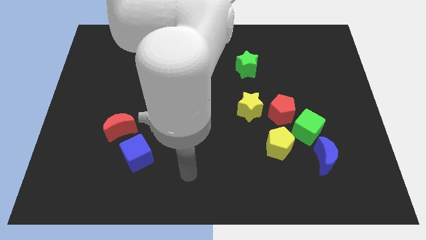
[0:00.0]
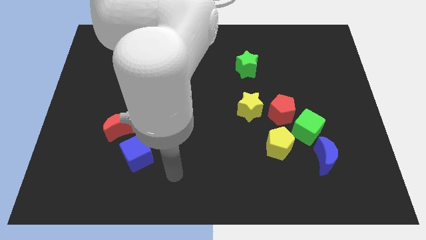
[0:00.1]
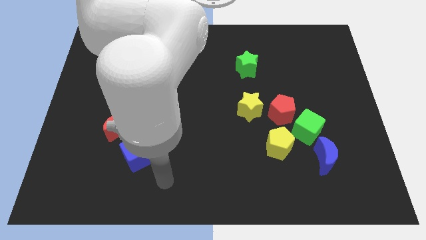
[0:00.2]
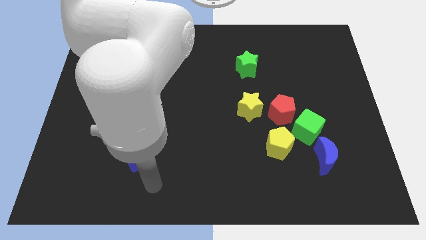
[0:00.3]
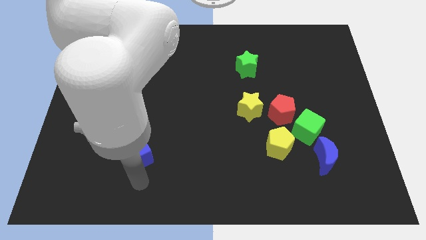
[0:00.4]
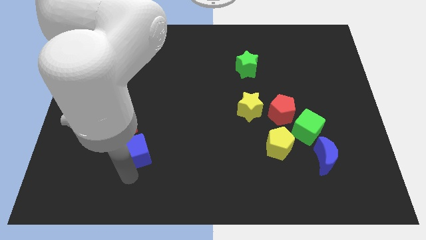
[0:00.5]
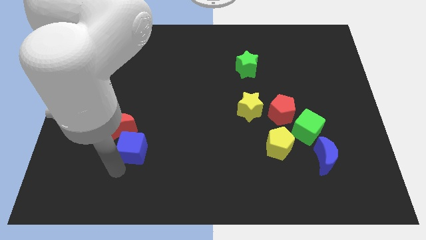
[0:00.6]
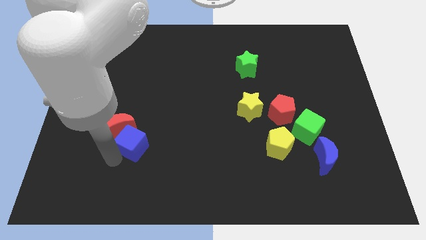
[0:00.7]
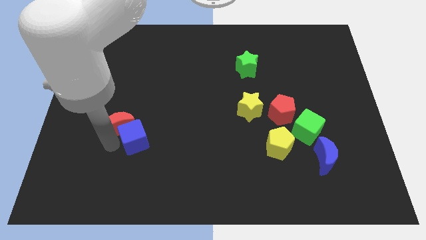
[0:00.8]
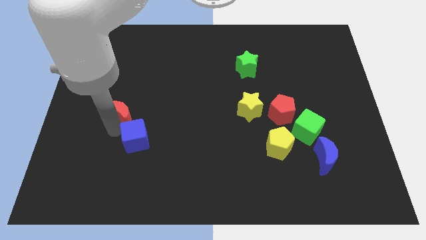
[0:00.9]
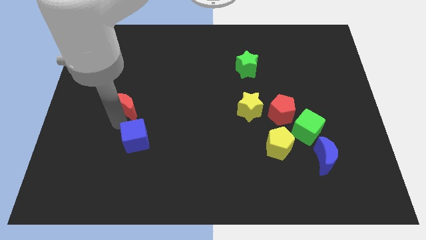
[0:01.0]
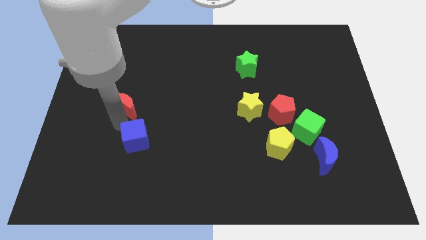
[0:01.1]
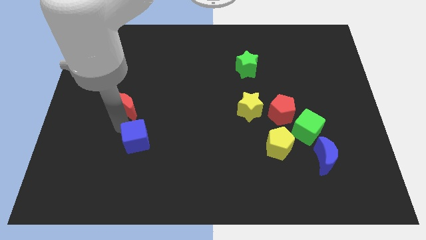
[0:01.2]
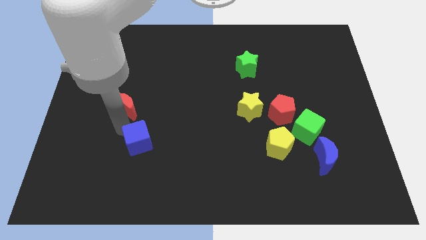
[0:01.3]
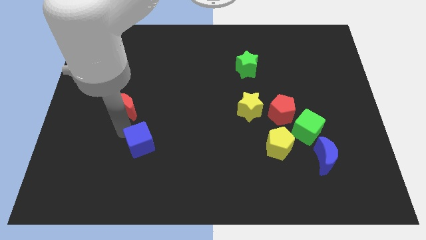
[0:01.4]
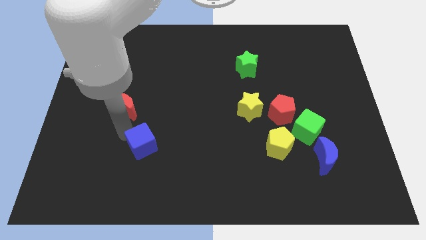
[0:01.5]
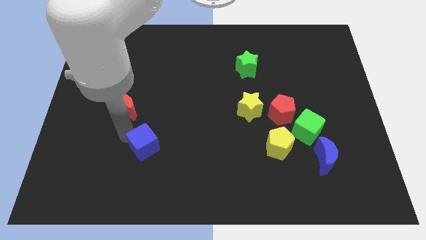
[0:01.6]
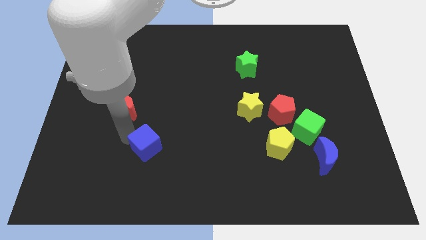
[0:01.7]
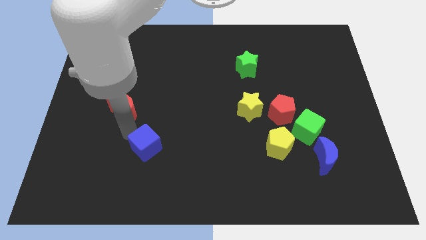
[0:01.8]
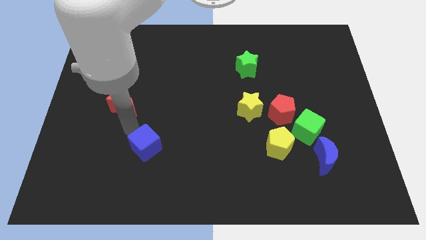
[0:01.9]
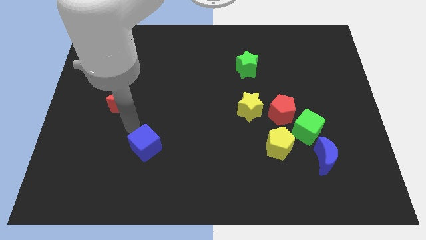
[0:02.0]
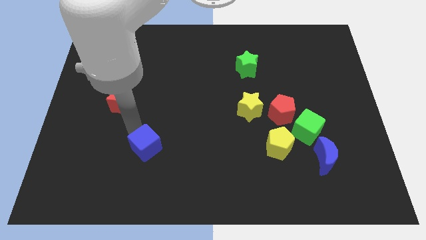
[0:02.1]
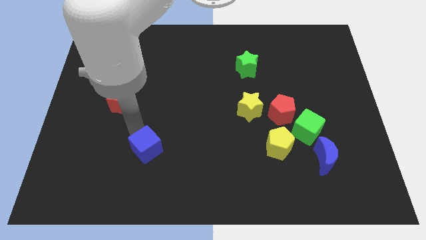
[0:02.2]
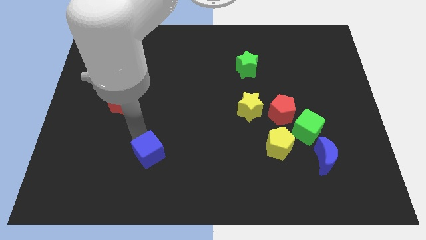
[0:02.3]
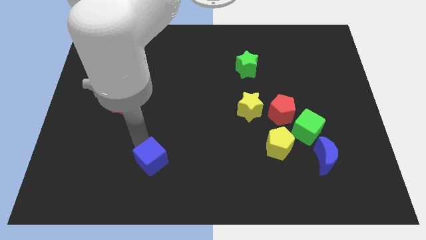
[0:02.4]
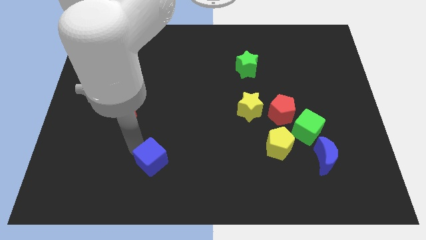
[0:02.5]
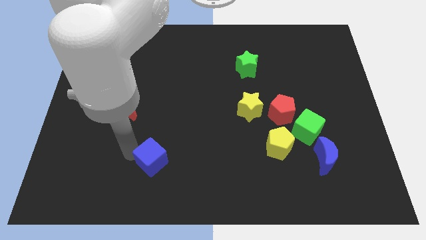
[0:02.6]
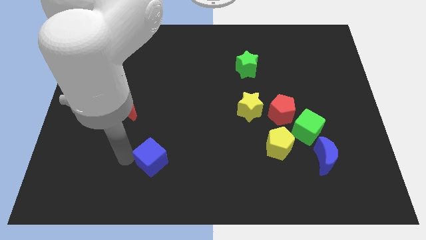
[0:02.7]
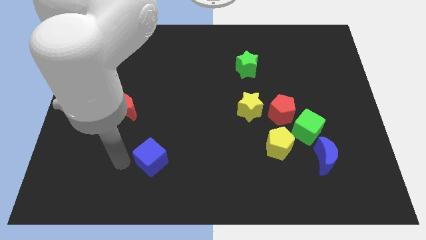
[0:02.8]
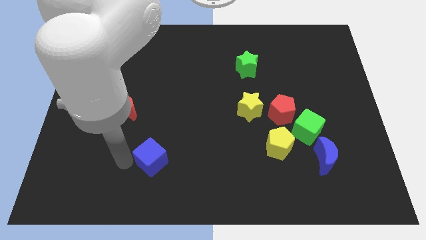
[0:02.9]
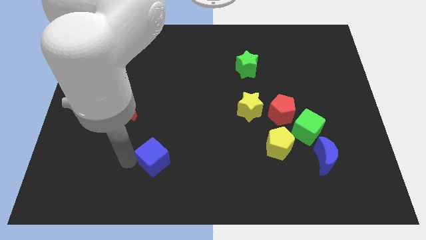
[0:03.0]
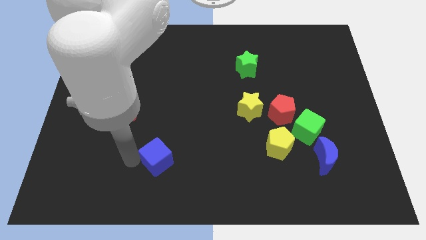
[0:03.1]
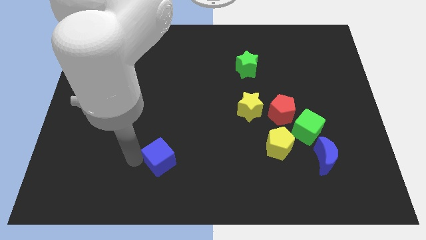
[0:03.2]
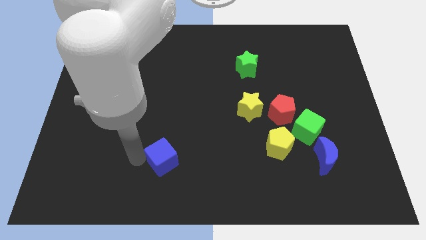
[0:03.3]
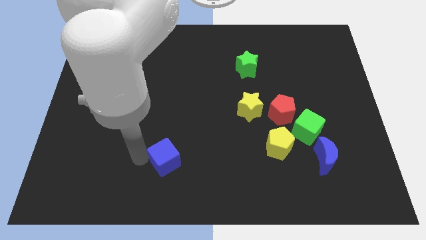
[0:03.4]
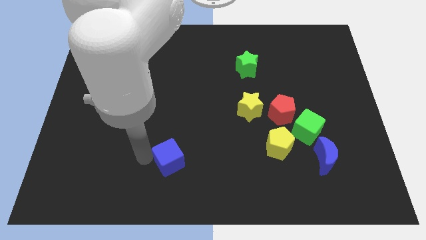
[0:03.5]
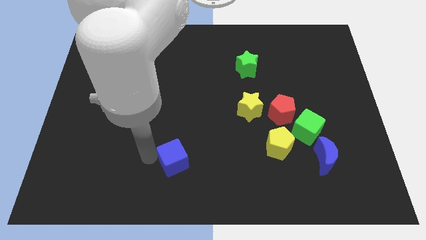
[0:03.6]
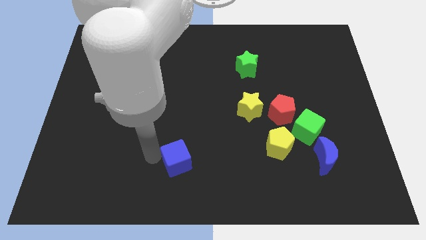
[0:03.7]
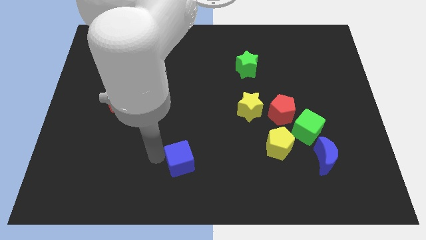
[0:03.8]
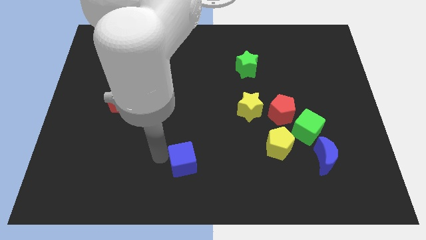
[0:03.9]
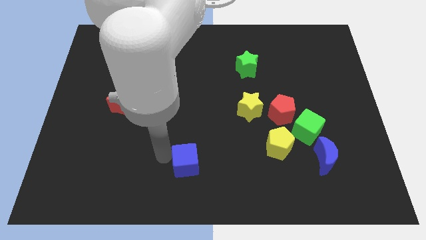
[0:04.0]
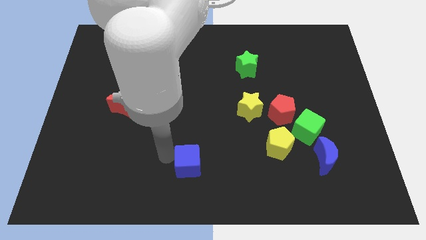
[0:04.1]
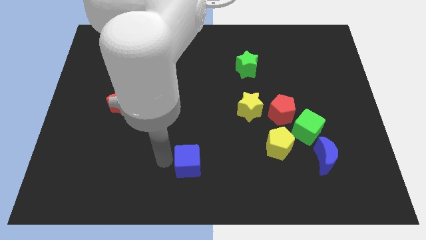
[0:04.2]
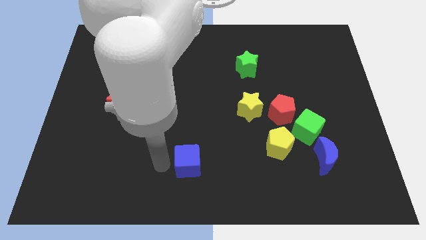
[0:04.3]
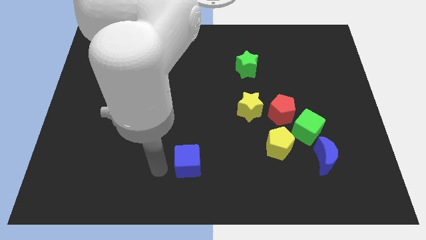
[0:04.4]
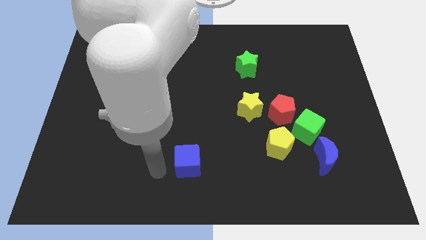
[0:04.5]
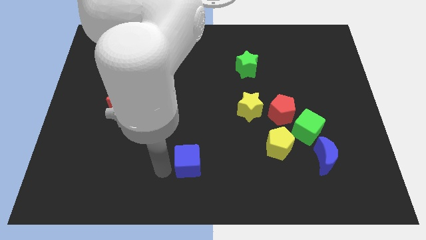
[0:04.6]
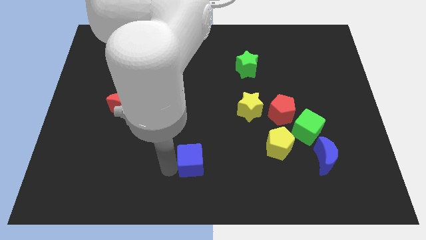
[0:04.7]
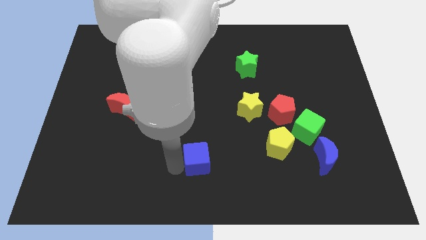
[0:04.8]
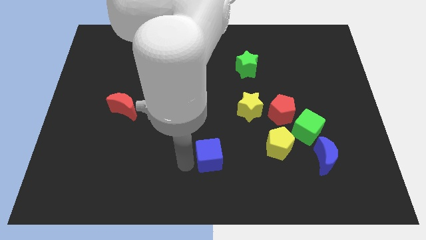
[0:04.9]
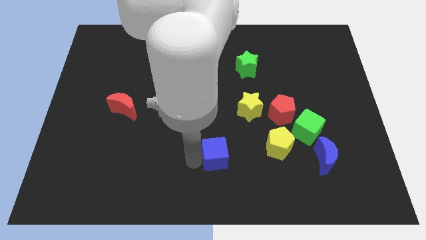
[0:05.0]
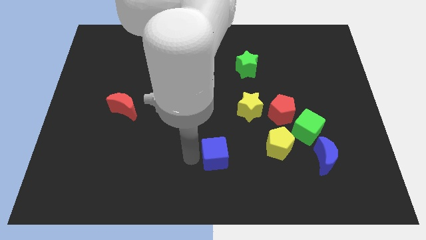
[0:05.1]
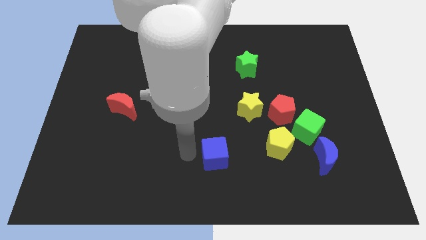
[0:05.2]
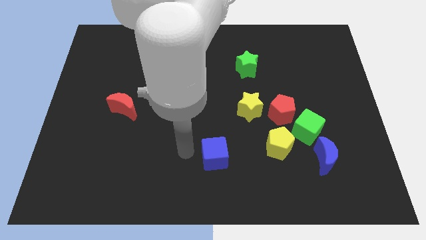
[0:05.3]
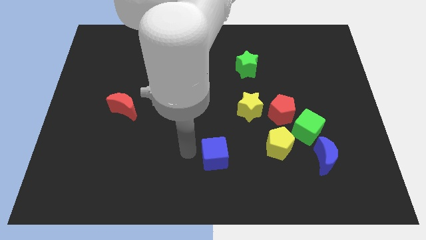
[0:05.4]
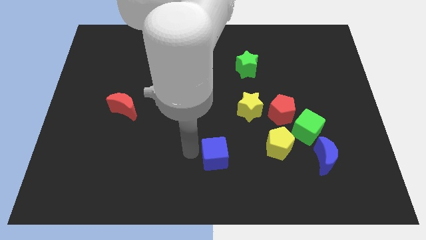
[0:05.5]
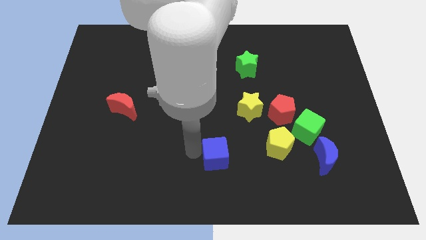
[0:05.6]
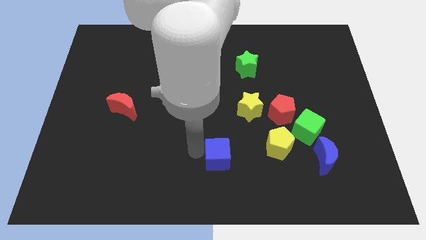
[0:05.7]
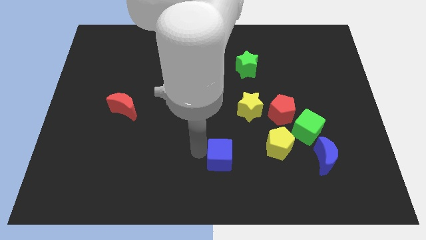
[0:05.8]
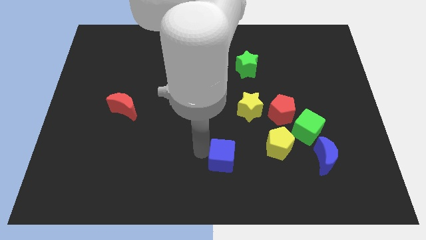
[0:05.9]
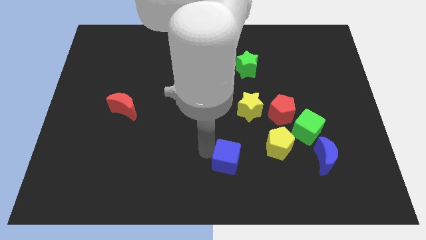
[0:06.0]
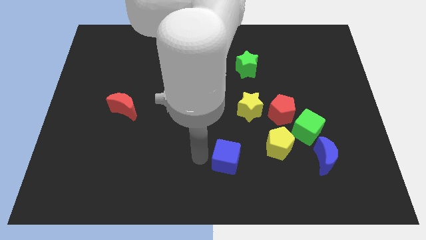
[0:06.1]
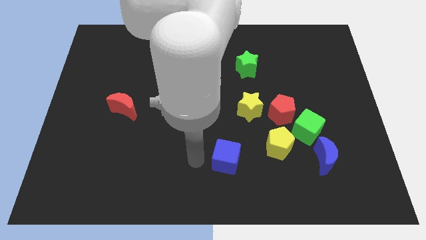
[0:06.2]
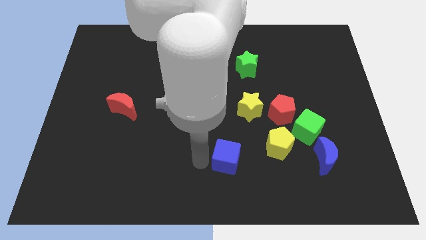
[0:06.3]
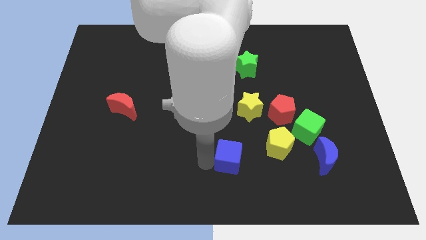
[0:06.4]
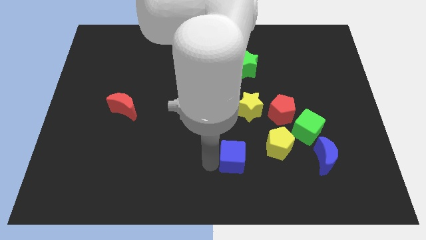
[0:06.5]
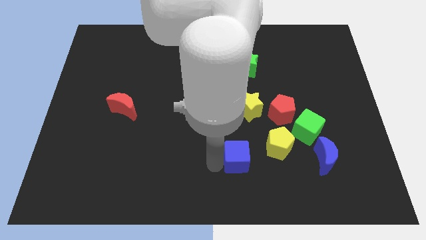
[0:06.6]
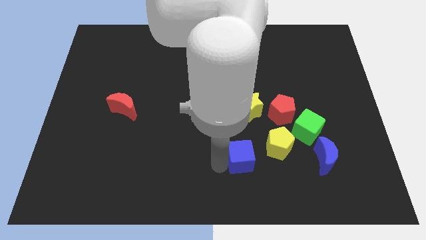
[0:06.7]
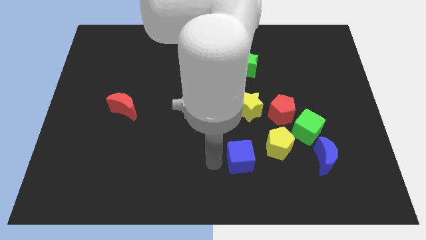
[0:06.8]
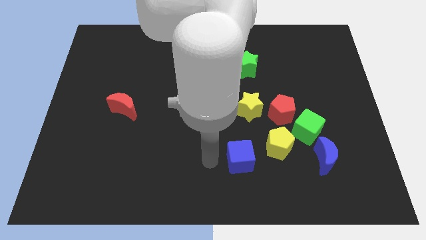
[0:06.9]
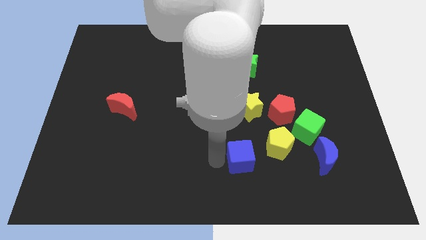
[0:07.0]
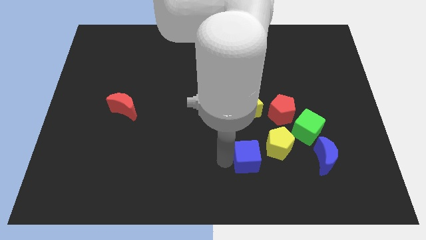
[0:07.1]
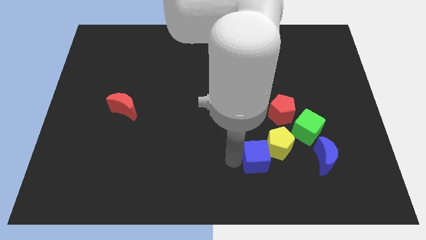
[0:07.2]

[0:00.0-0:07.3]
slide the blue cube left of the blue moon
